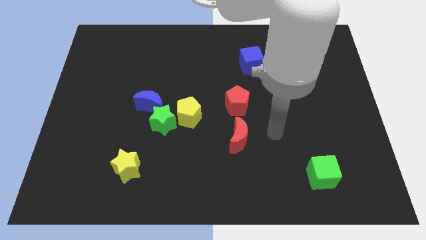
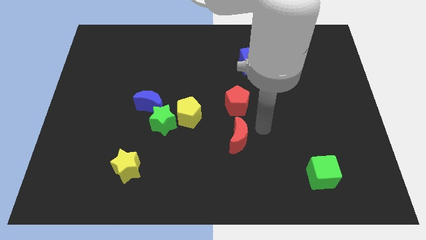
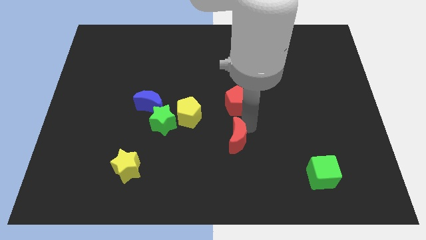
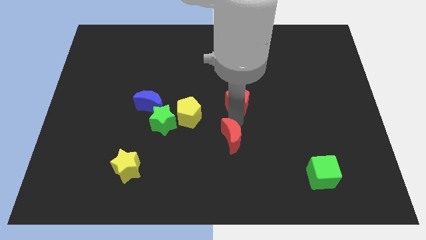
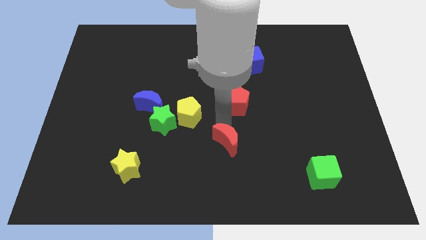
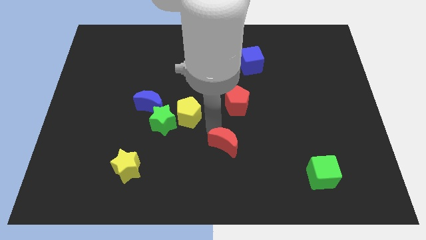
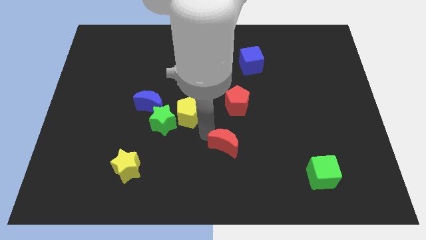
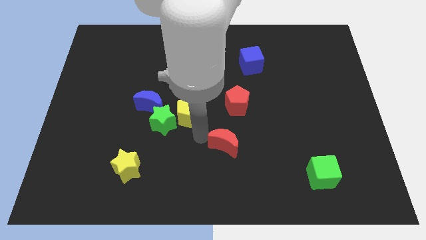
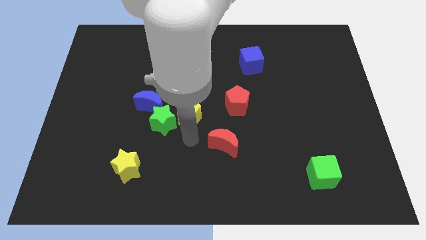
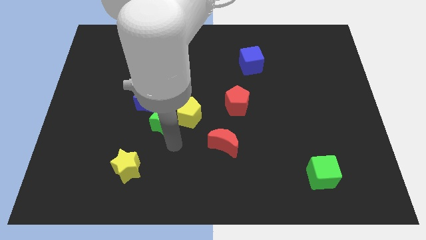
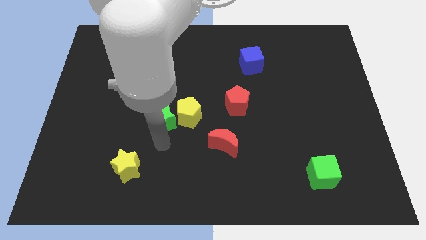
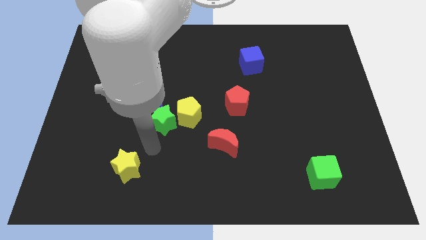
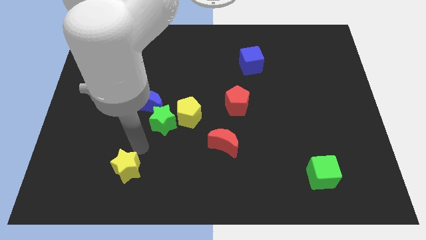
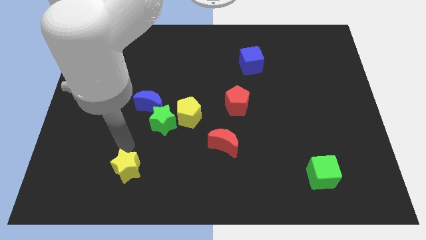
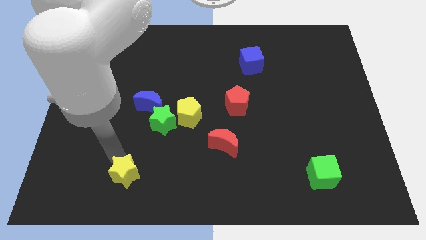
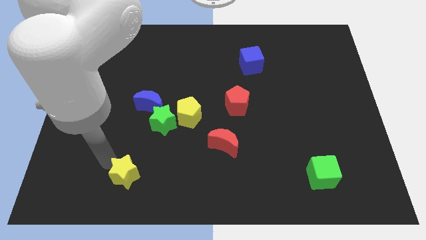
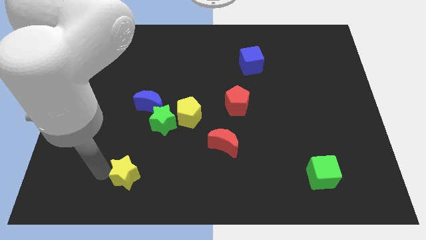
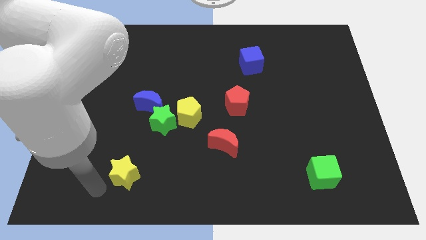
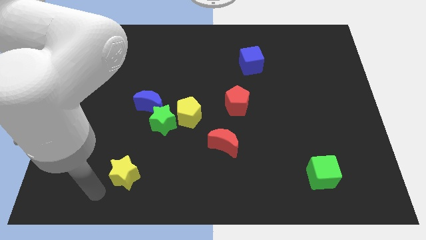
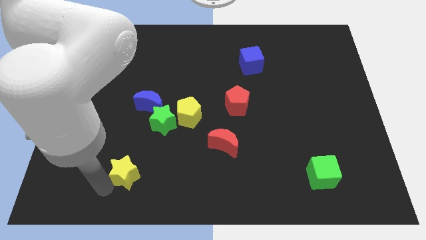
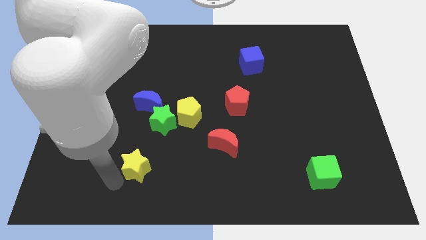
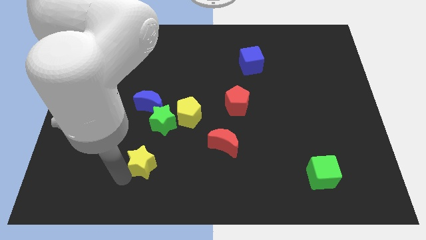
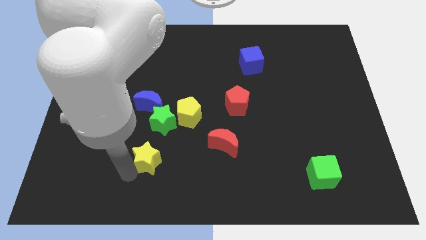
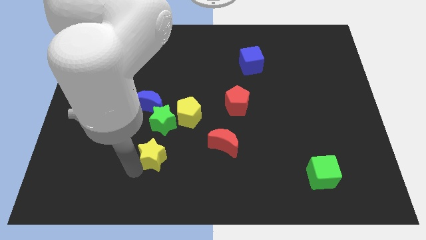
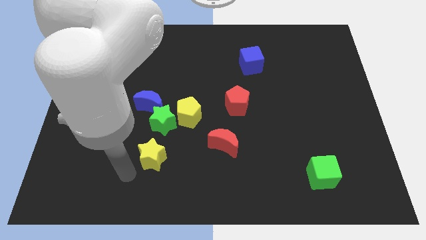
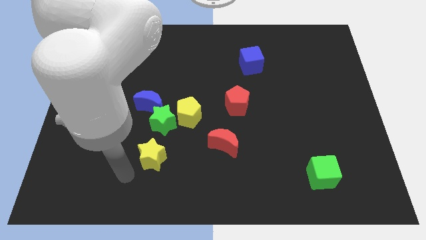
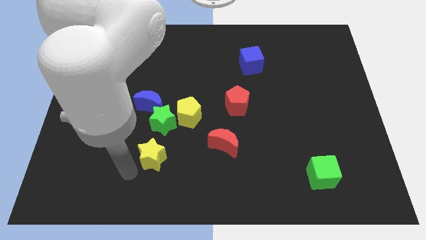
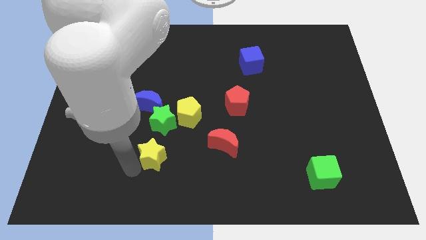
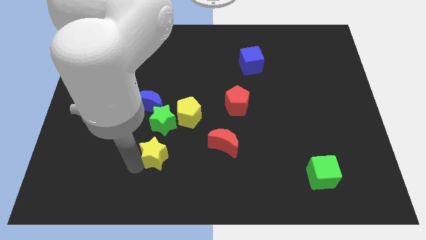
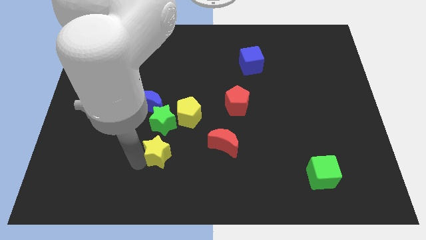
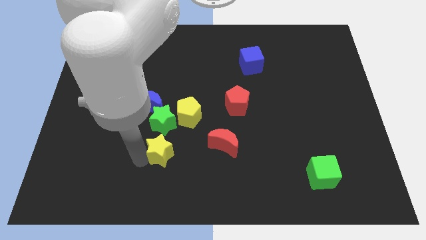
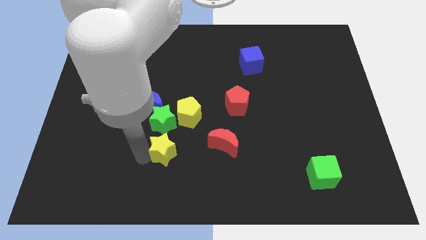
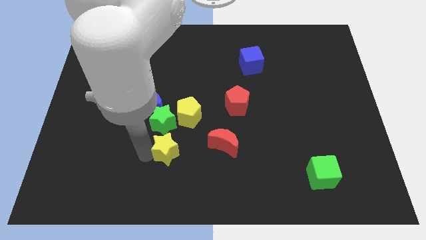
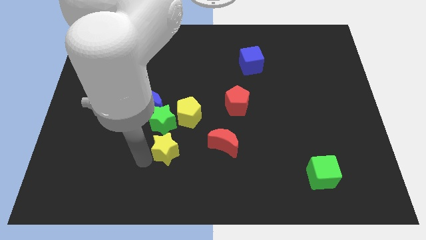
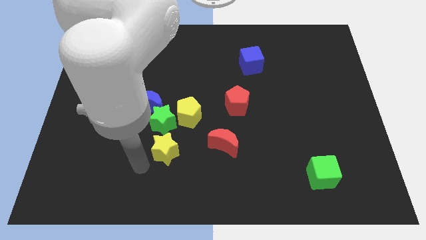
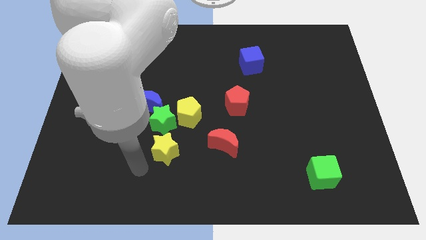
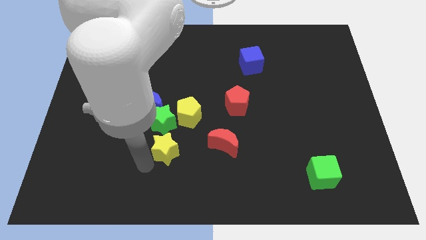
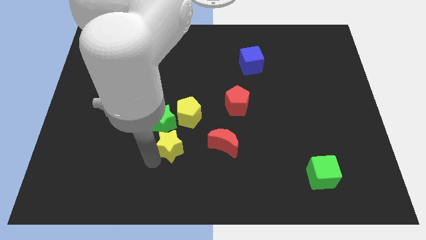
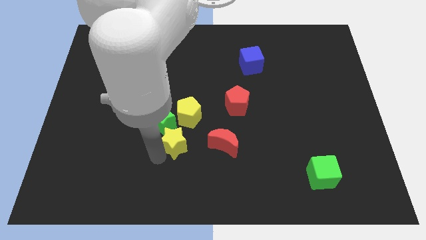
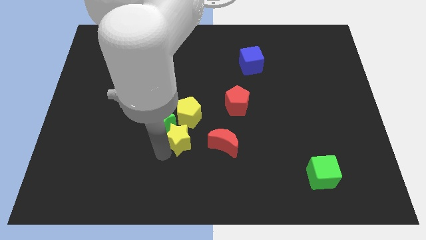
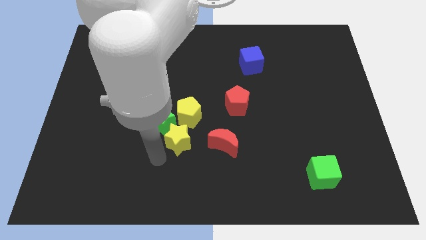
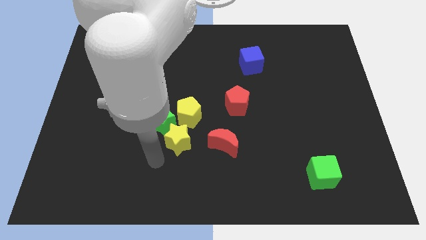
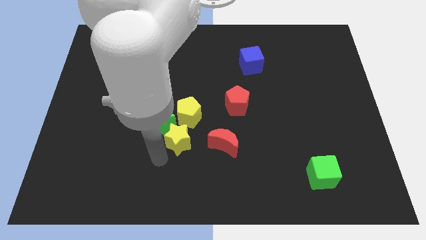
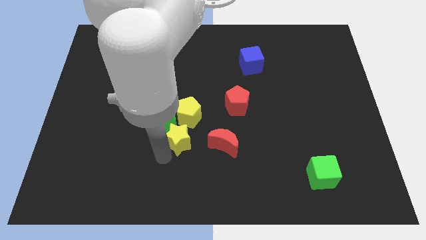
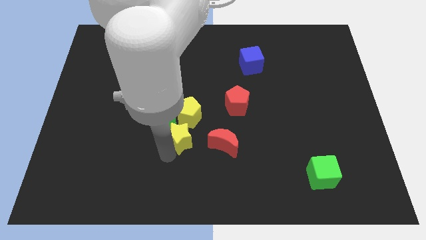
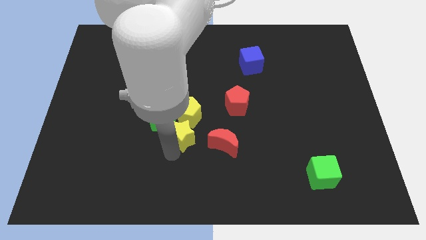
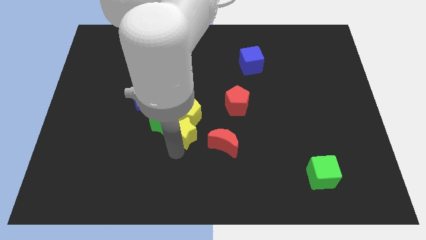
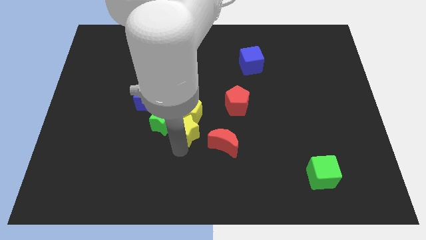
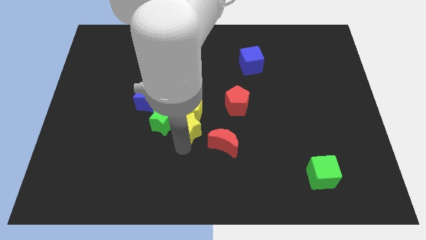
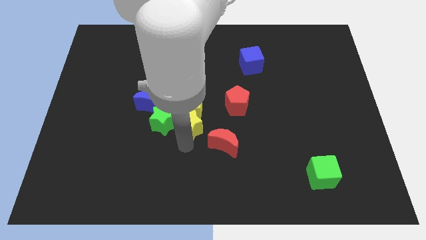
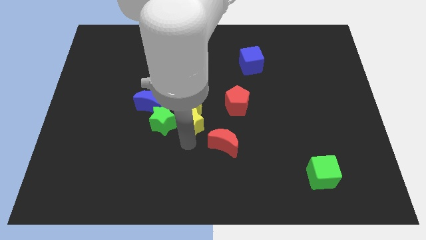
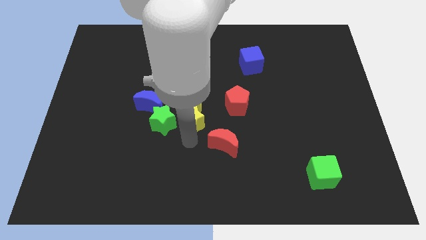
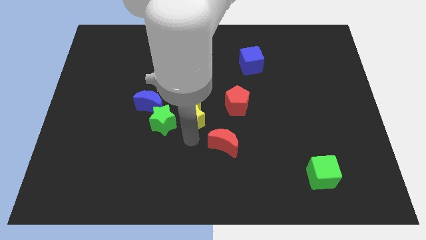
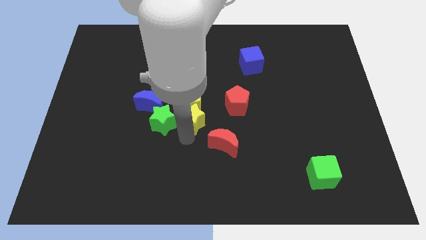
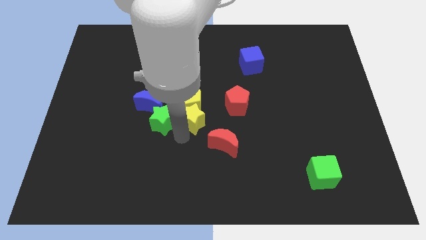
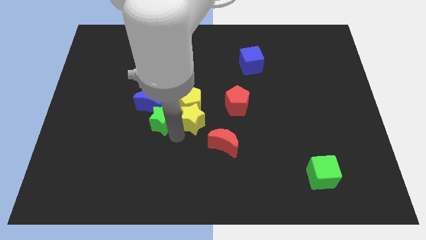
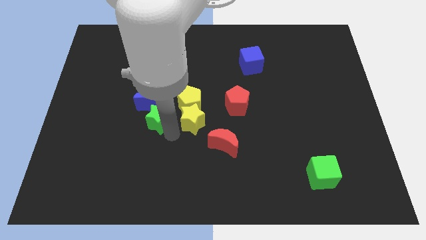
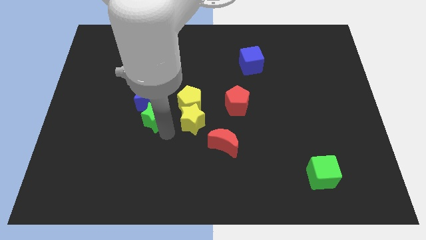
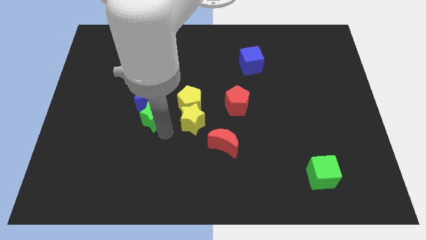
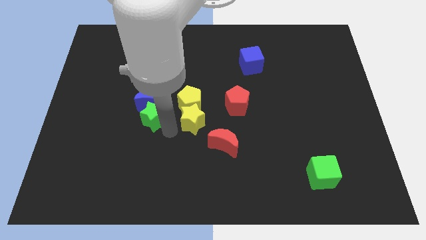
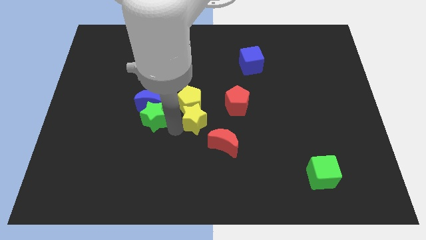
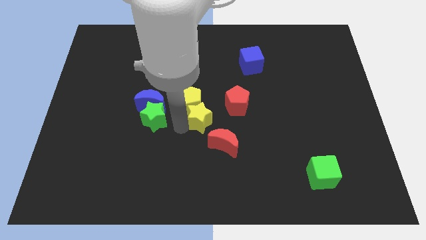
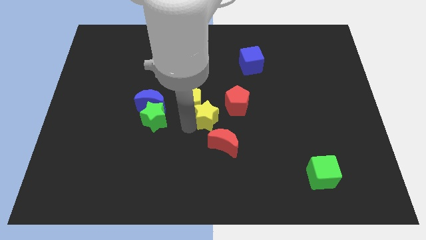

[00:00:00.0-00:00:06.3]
push the yellow star upwards and right diagonally

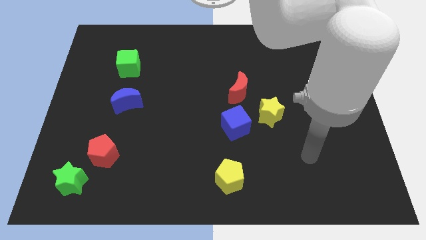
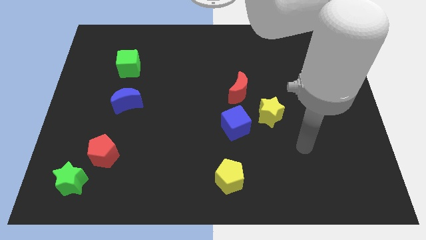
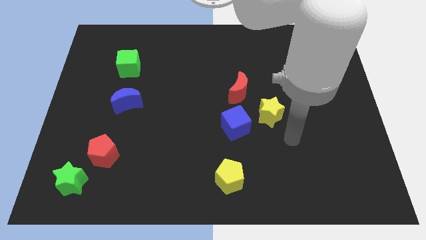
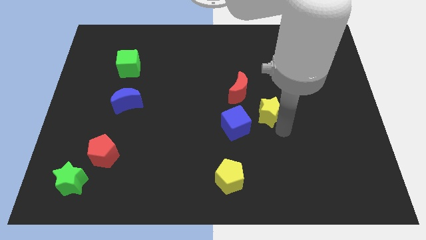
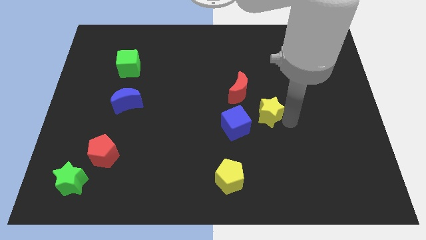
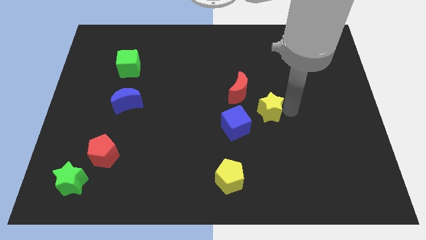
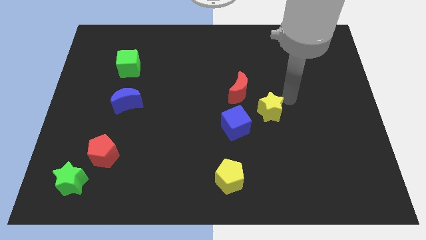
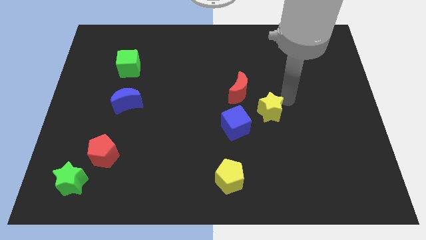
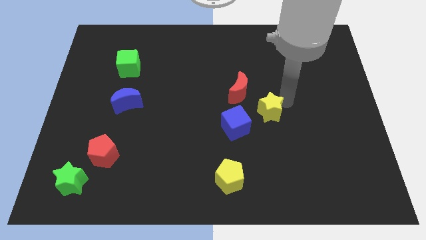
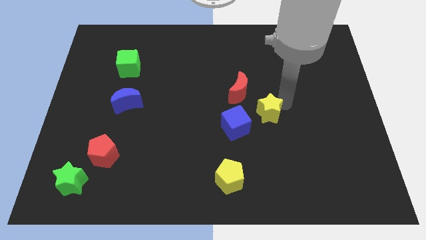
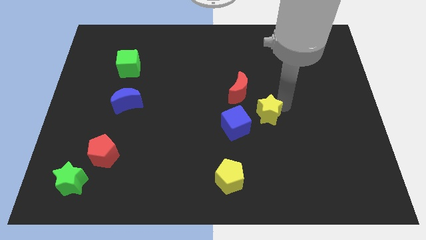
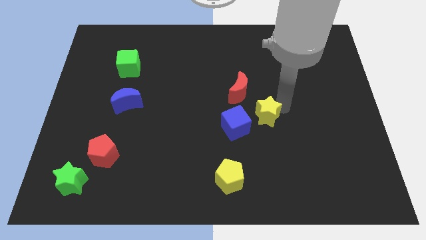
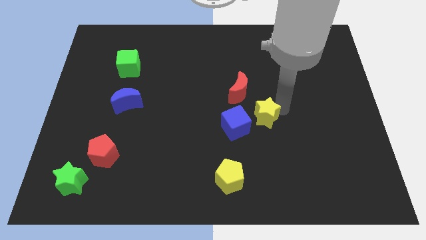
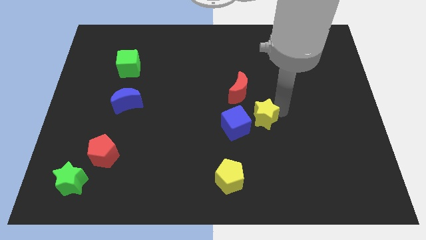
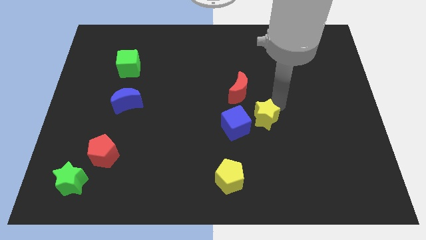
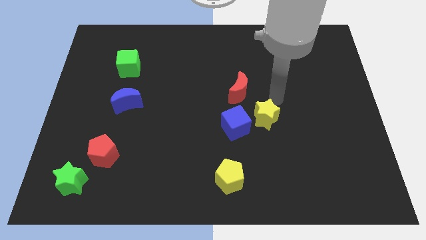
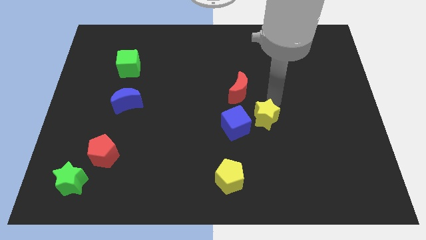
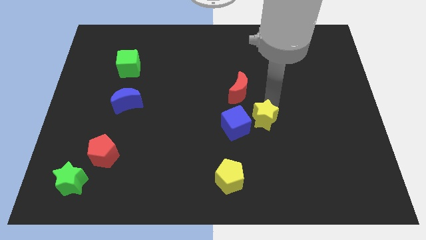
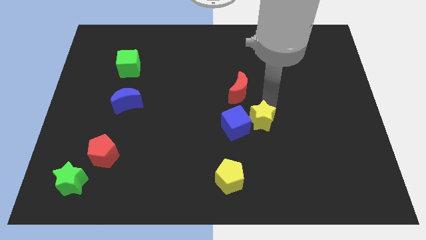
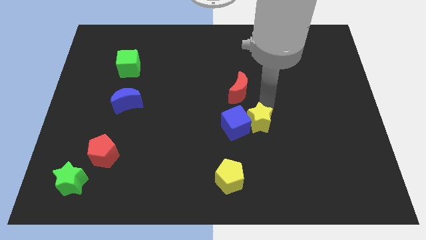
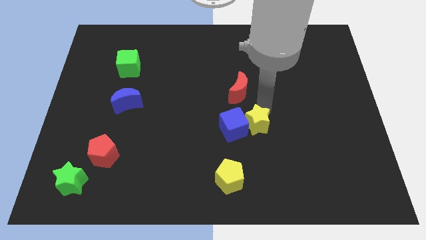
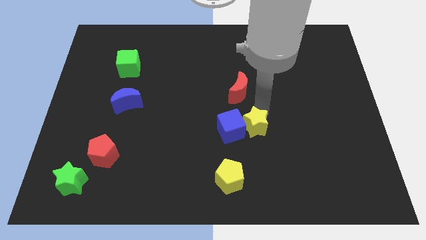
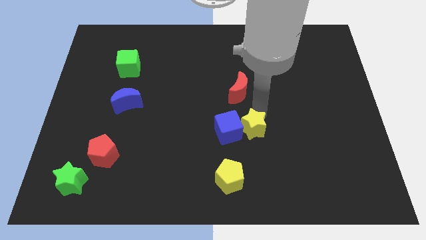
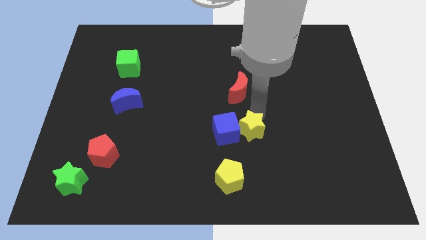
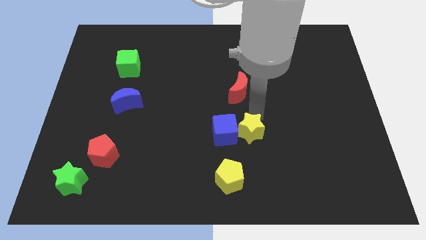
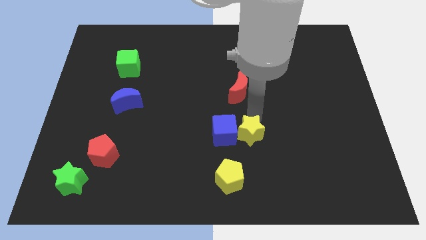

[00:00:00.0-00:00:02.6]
slightly slide the yellow star down and left
